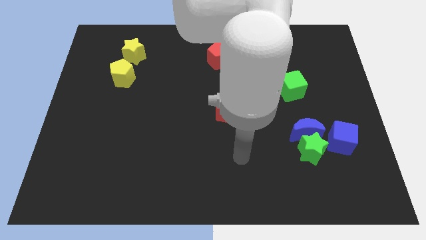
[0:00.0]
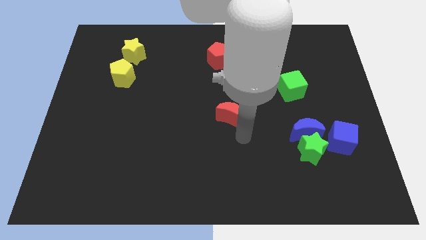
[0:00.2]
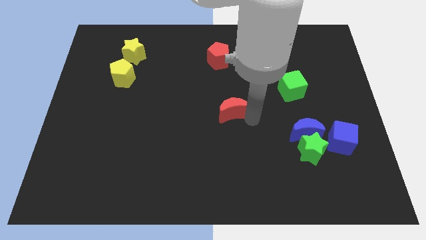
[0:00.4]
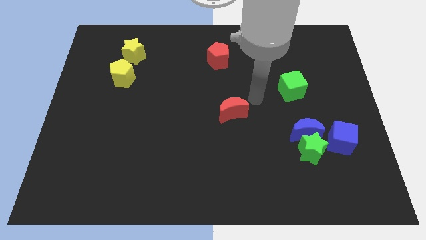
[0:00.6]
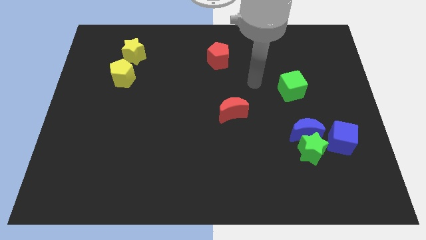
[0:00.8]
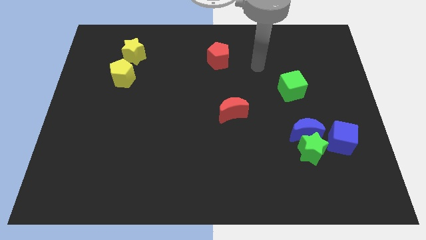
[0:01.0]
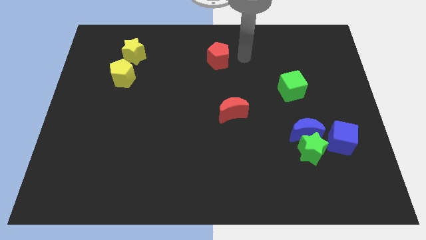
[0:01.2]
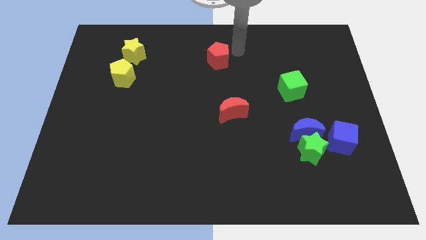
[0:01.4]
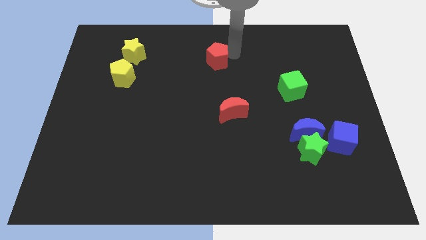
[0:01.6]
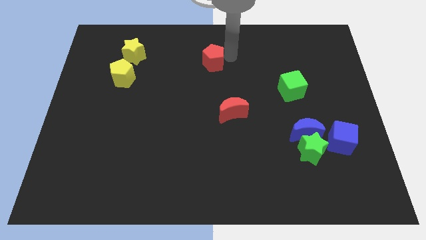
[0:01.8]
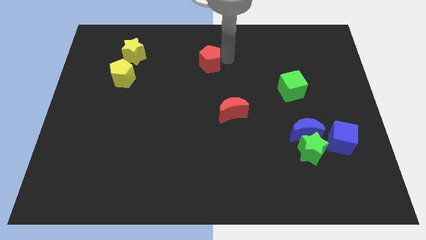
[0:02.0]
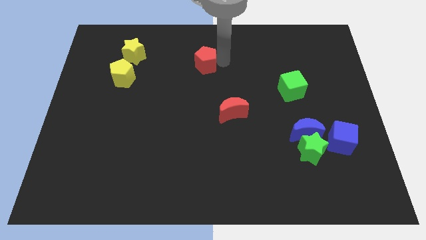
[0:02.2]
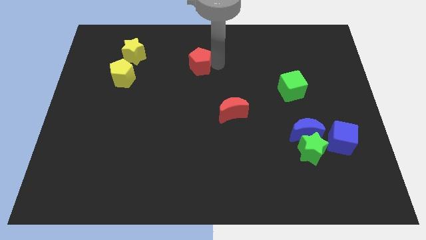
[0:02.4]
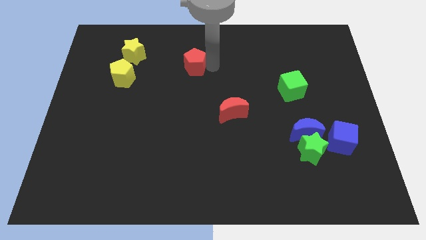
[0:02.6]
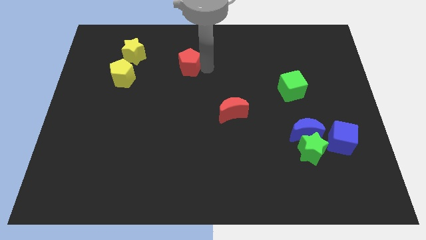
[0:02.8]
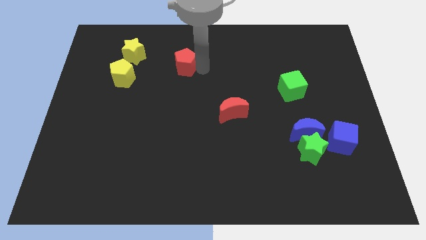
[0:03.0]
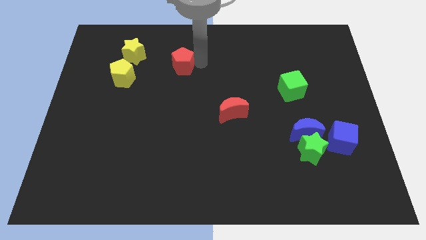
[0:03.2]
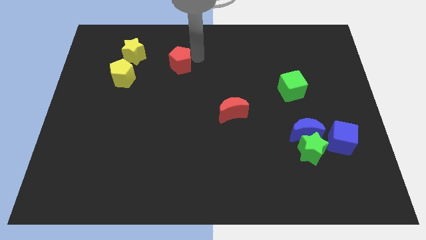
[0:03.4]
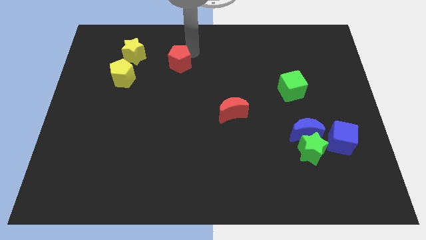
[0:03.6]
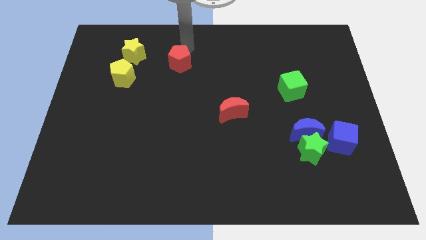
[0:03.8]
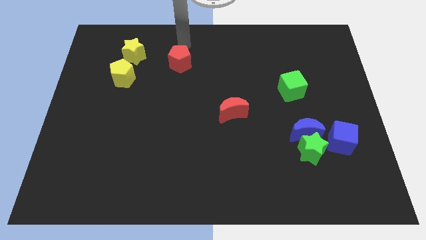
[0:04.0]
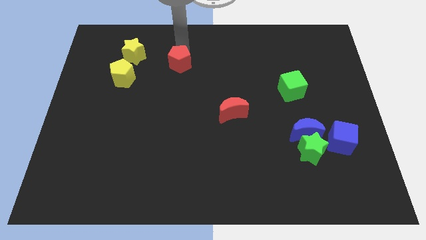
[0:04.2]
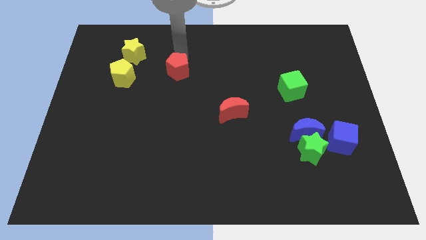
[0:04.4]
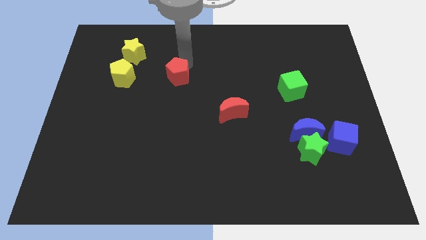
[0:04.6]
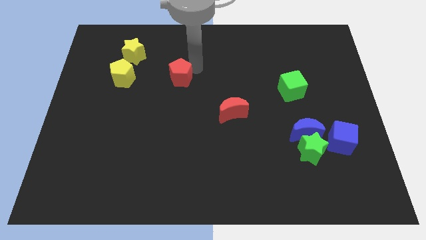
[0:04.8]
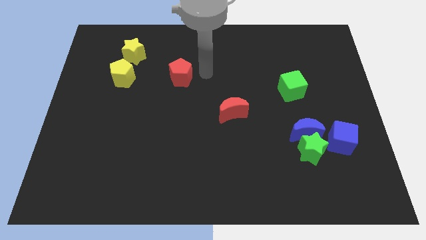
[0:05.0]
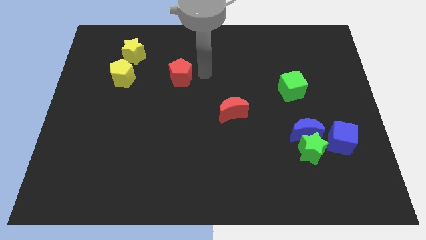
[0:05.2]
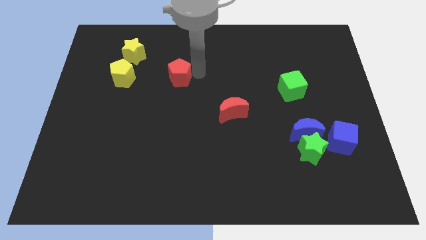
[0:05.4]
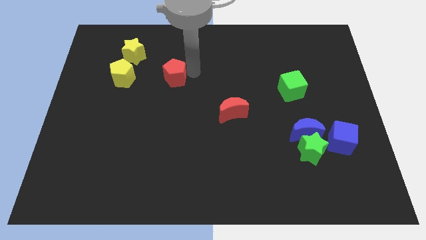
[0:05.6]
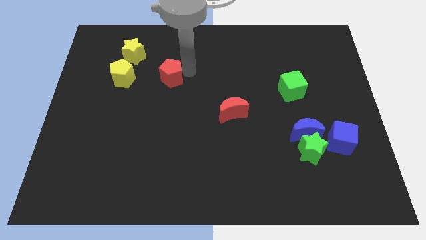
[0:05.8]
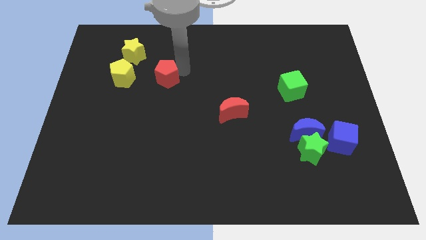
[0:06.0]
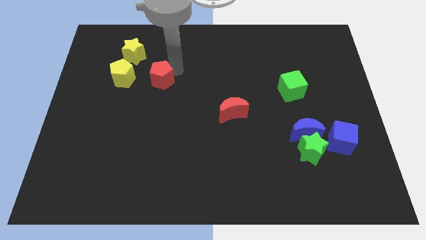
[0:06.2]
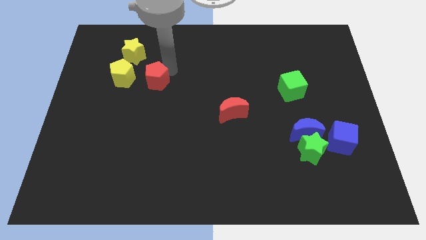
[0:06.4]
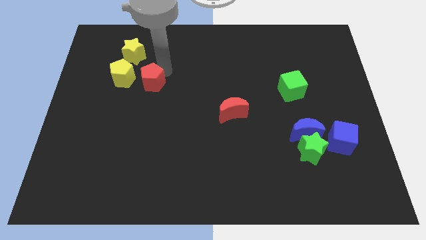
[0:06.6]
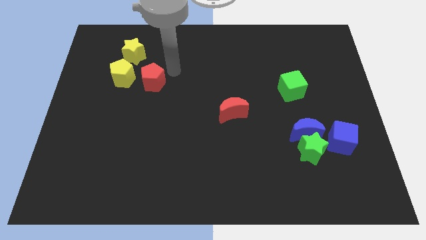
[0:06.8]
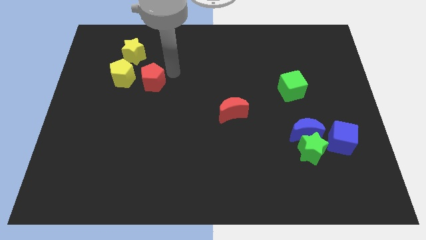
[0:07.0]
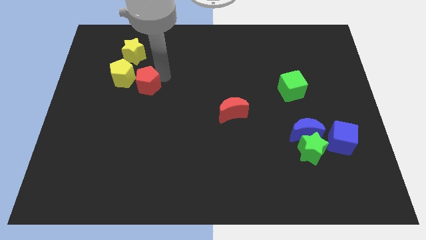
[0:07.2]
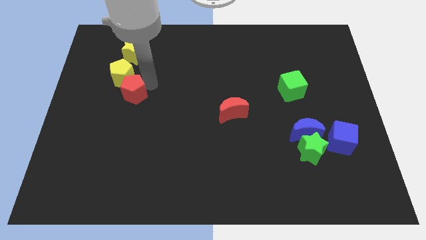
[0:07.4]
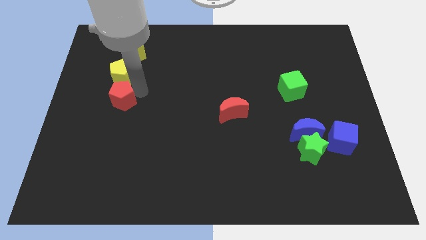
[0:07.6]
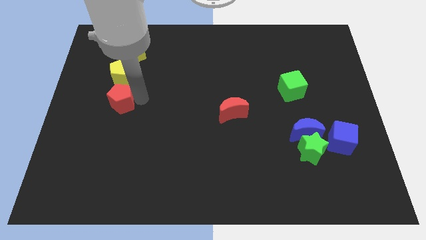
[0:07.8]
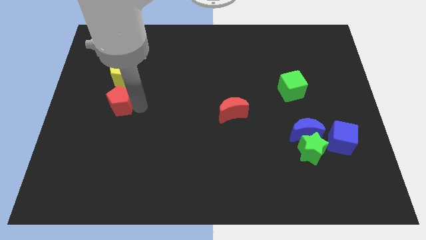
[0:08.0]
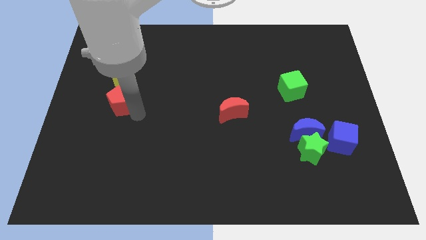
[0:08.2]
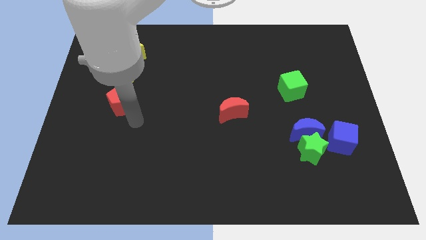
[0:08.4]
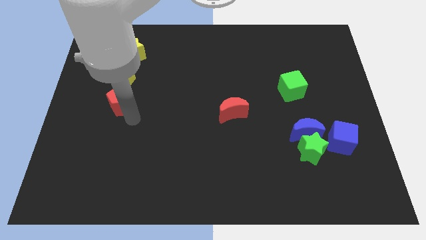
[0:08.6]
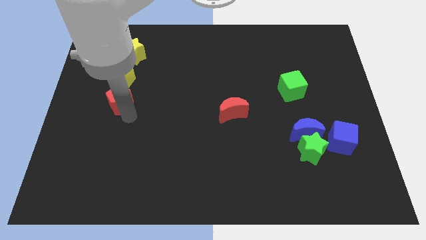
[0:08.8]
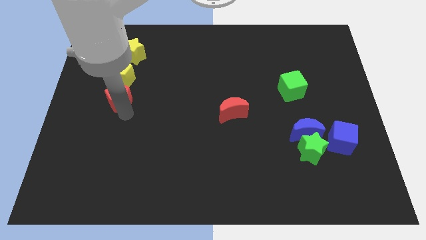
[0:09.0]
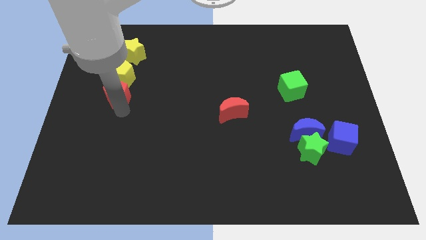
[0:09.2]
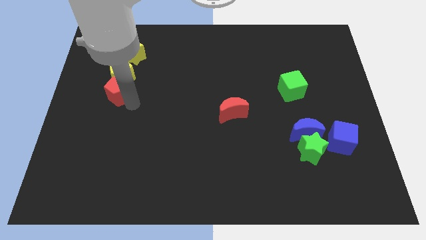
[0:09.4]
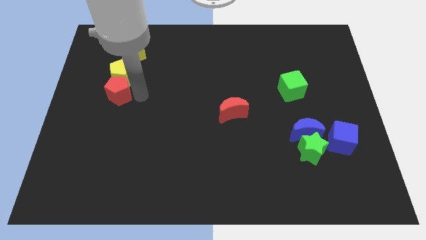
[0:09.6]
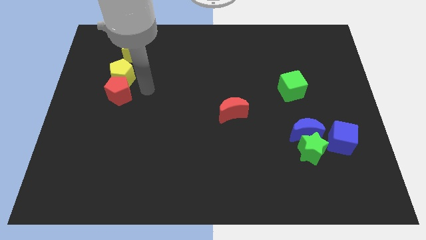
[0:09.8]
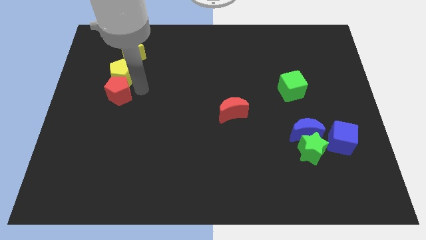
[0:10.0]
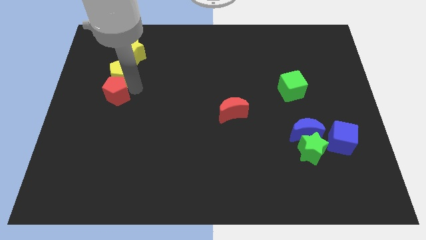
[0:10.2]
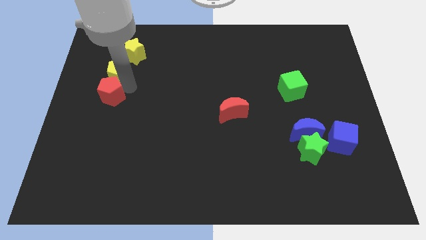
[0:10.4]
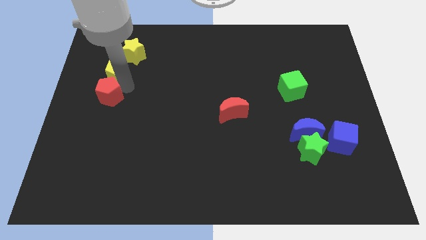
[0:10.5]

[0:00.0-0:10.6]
slide the red pentagon to the center left

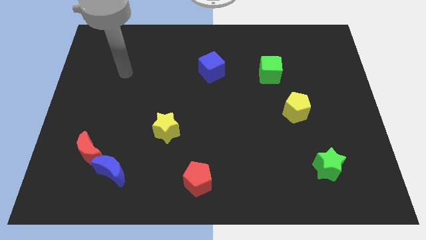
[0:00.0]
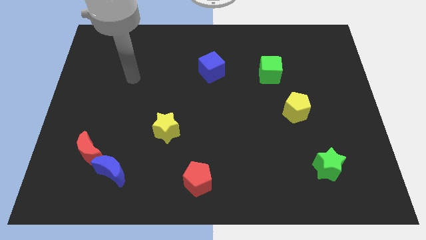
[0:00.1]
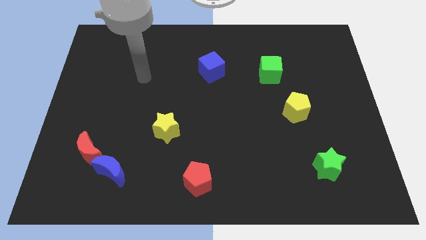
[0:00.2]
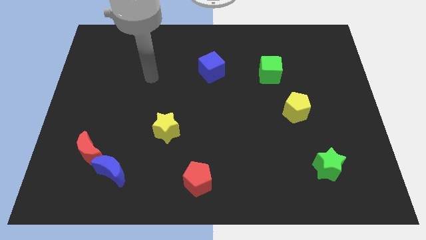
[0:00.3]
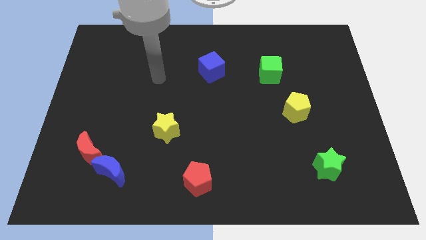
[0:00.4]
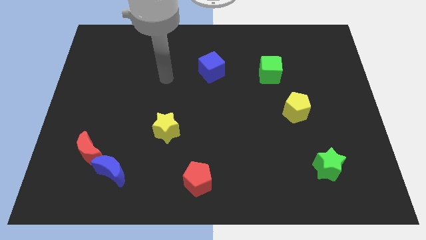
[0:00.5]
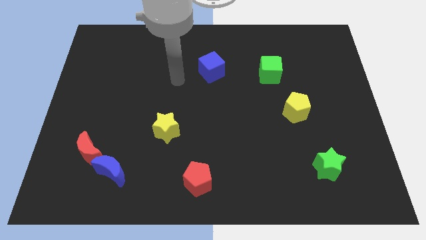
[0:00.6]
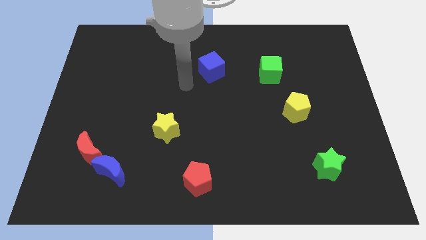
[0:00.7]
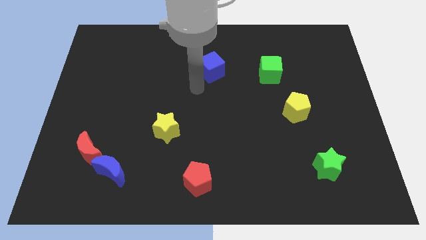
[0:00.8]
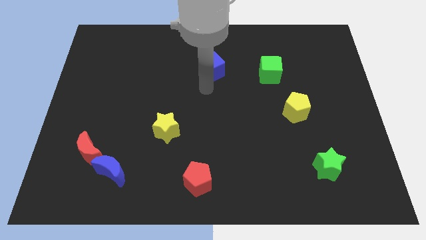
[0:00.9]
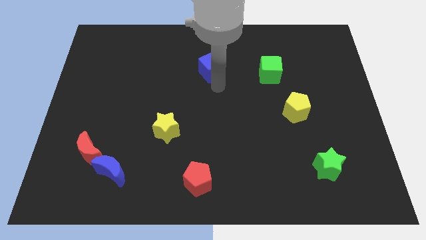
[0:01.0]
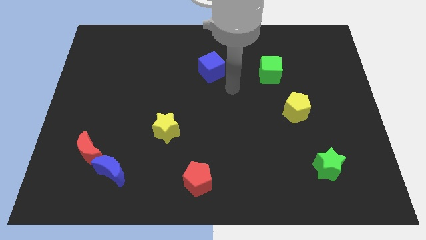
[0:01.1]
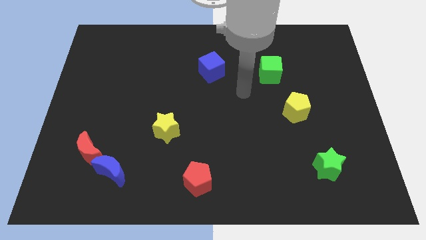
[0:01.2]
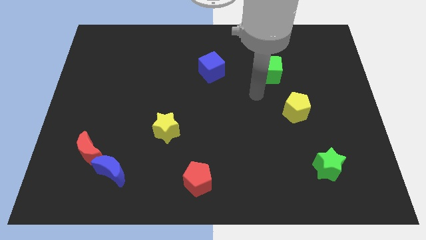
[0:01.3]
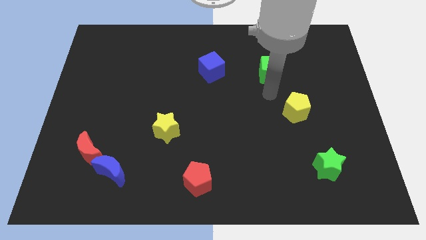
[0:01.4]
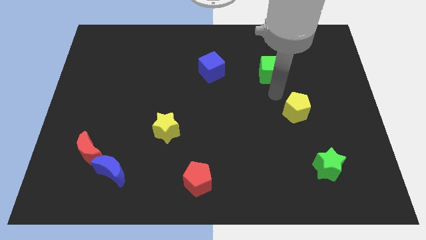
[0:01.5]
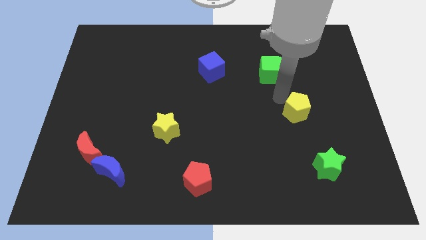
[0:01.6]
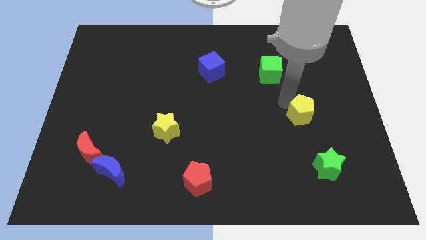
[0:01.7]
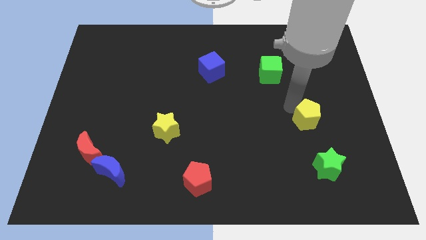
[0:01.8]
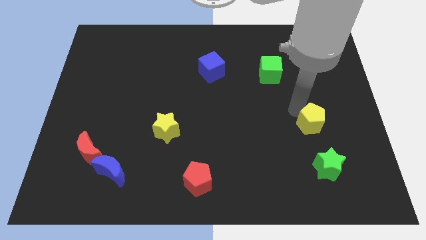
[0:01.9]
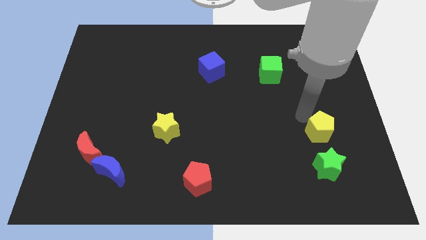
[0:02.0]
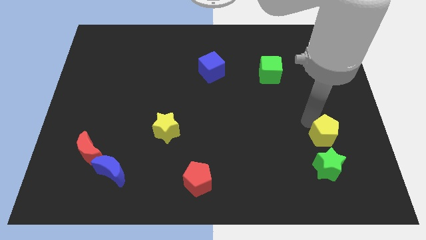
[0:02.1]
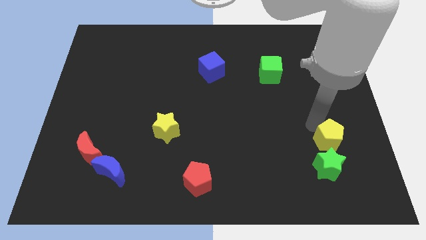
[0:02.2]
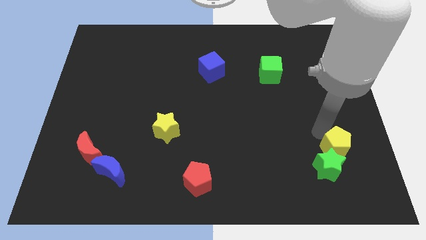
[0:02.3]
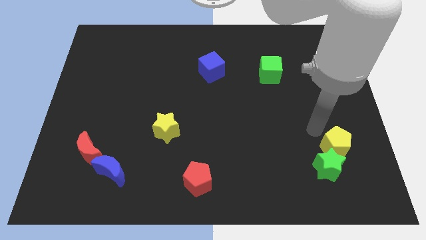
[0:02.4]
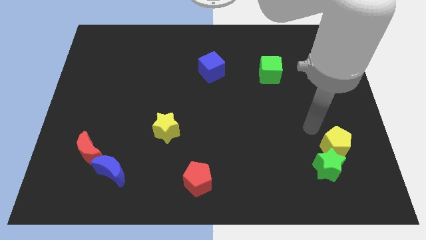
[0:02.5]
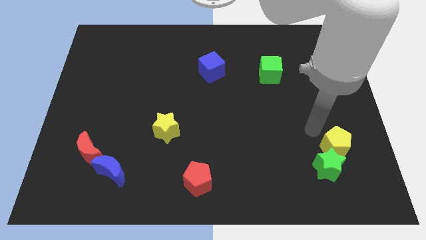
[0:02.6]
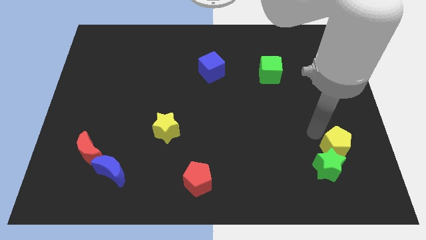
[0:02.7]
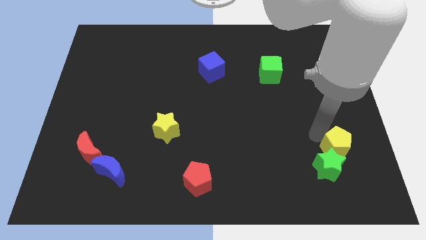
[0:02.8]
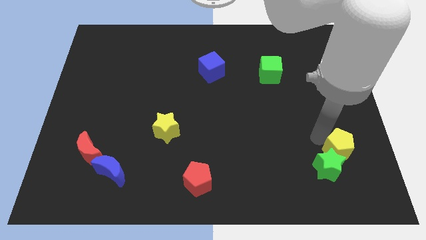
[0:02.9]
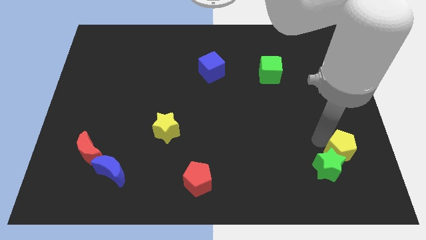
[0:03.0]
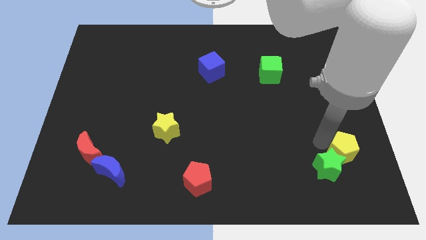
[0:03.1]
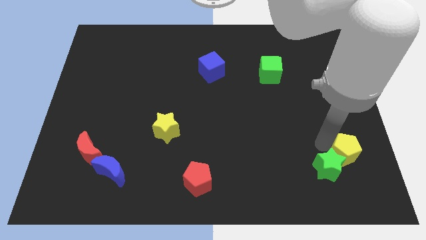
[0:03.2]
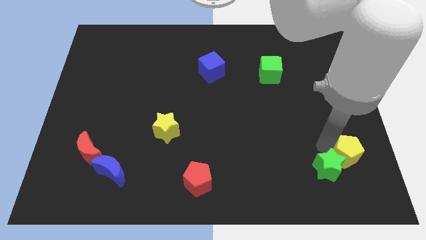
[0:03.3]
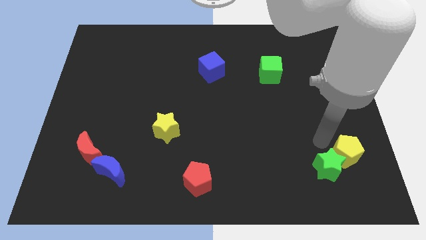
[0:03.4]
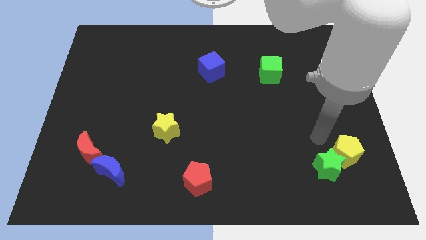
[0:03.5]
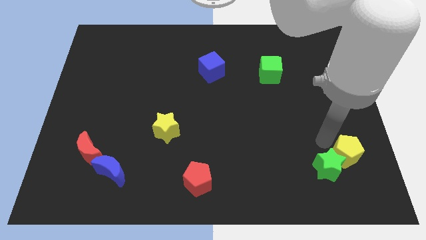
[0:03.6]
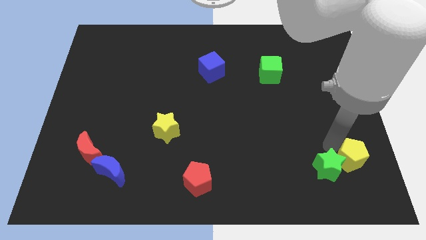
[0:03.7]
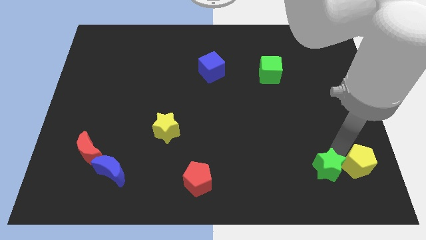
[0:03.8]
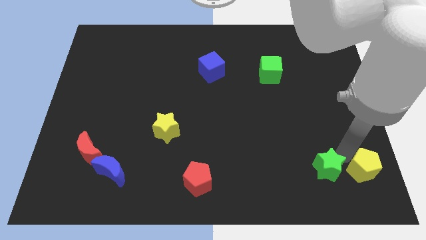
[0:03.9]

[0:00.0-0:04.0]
push the yellow pentagon to the bottom right
